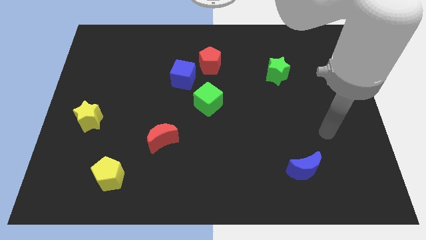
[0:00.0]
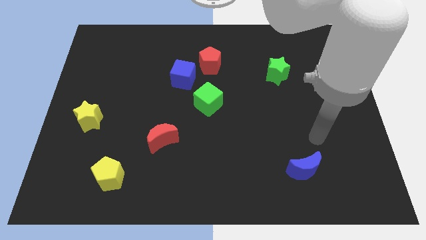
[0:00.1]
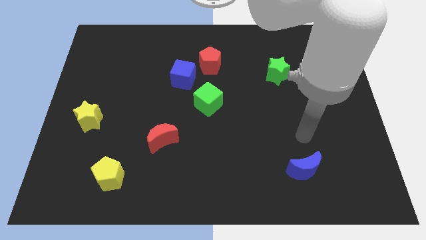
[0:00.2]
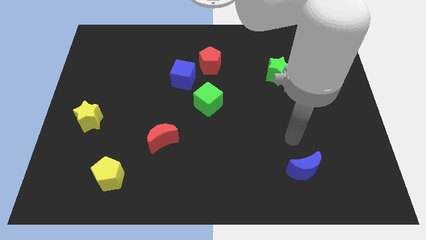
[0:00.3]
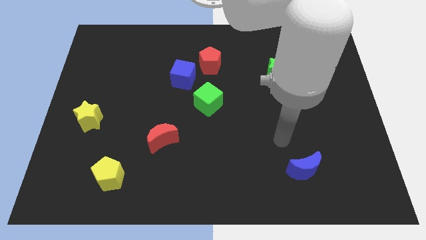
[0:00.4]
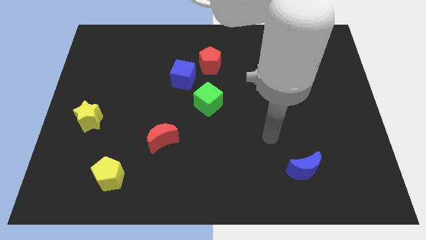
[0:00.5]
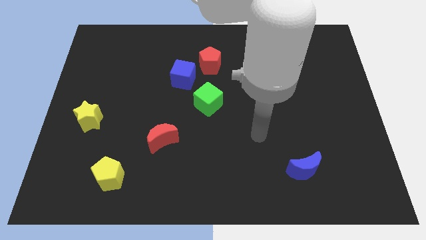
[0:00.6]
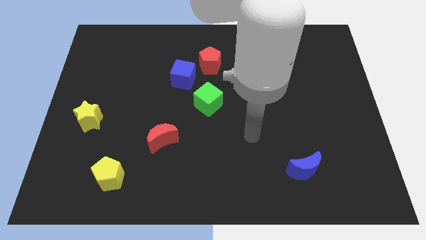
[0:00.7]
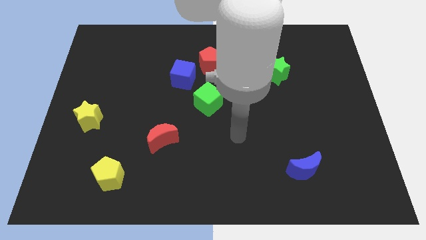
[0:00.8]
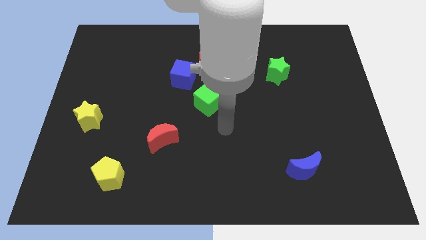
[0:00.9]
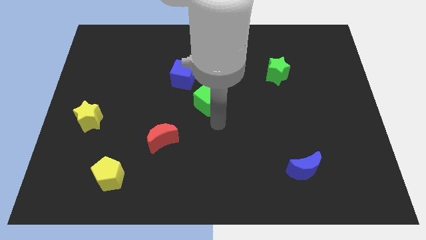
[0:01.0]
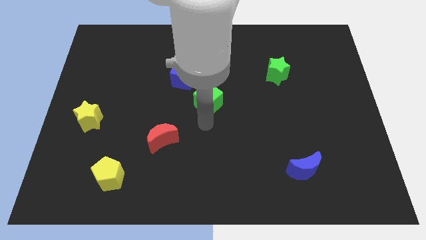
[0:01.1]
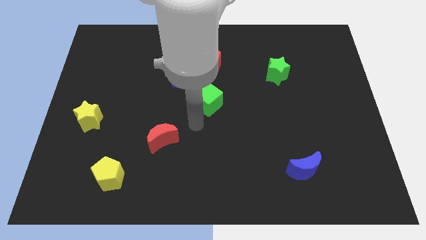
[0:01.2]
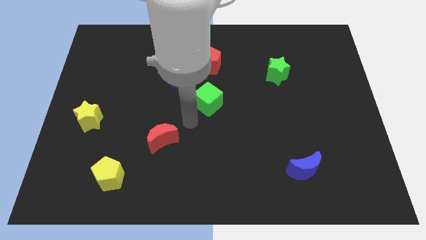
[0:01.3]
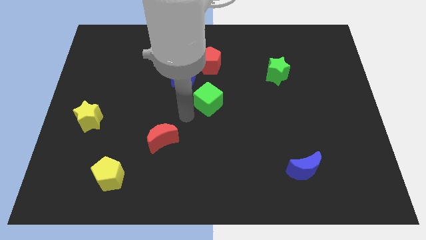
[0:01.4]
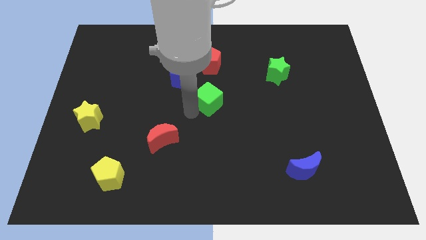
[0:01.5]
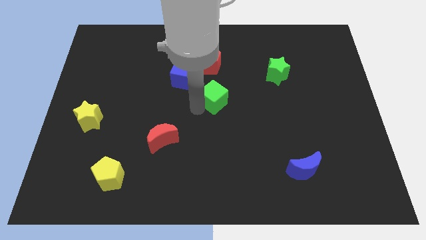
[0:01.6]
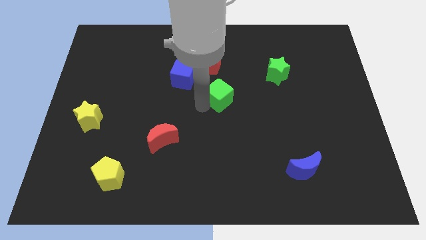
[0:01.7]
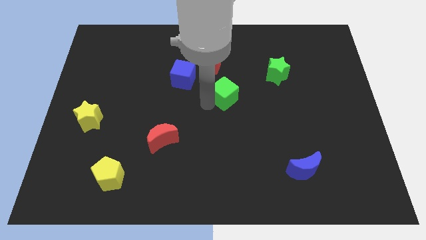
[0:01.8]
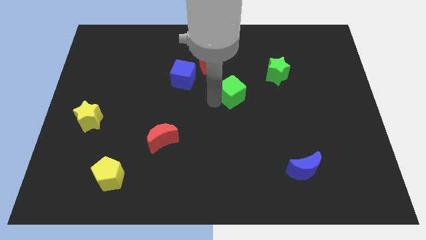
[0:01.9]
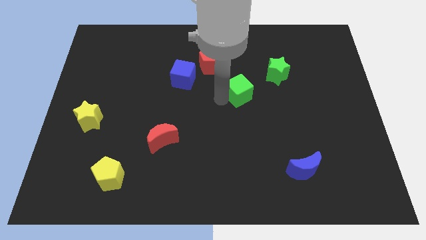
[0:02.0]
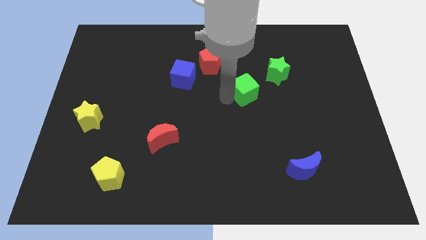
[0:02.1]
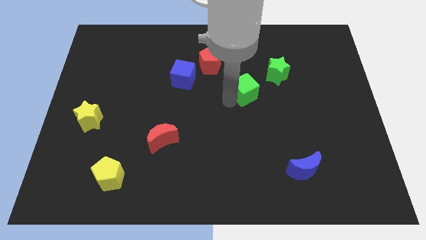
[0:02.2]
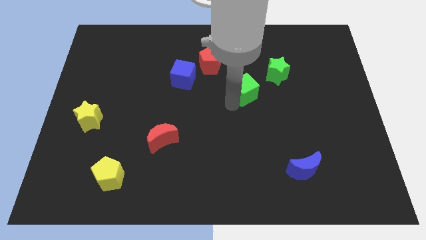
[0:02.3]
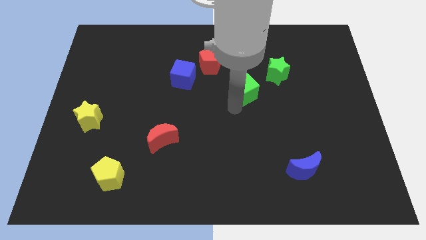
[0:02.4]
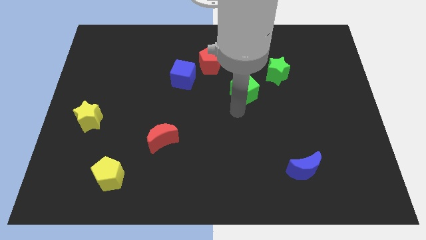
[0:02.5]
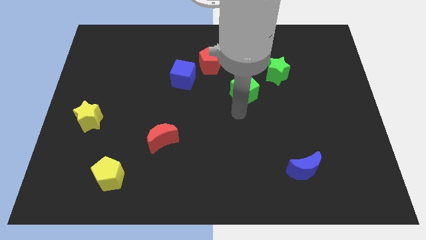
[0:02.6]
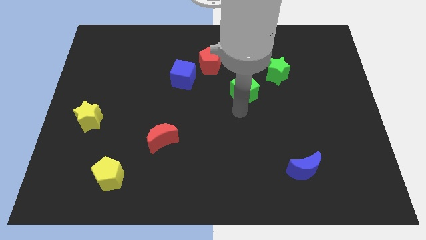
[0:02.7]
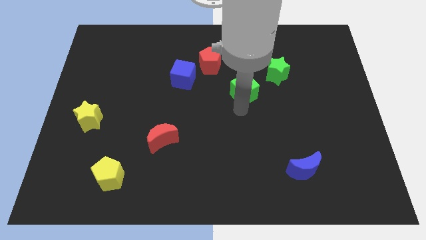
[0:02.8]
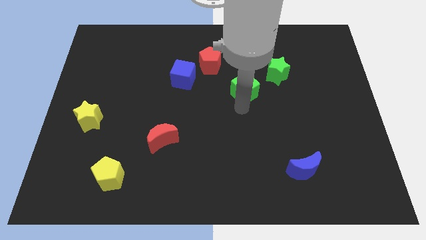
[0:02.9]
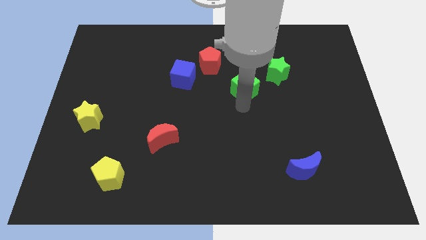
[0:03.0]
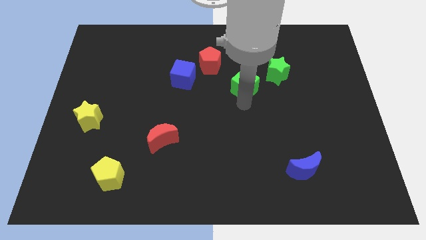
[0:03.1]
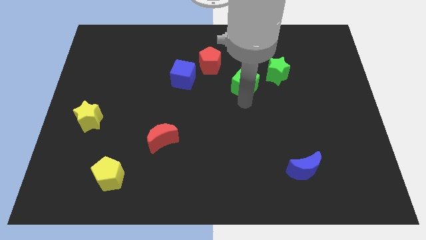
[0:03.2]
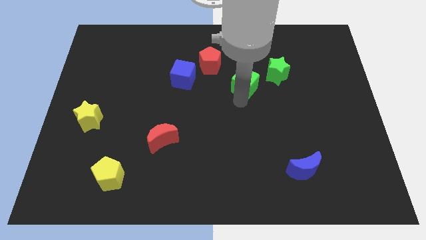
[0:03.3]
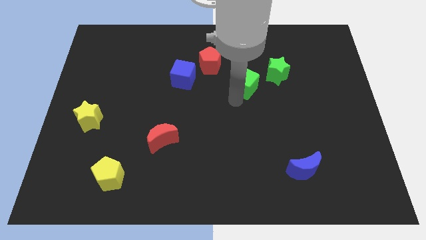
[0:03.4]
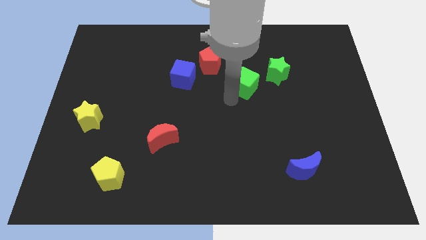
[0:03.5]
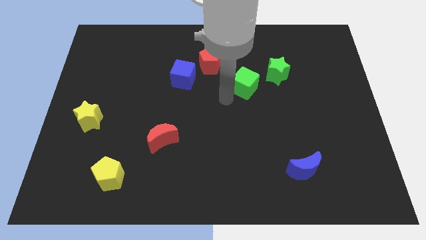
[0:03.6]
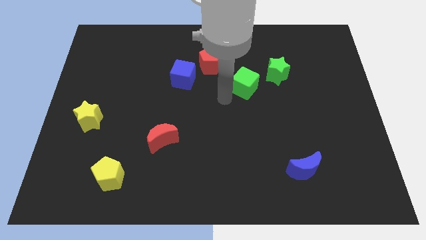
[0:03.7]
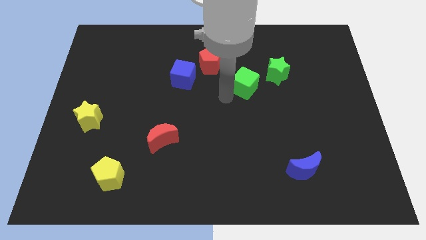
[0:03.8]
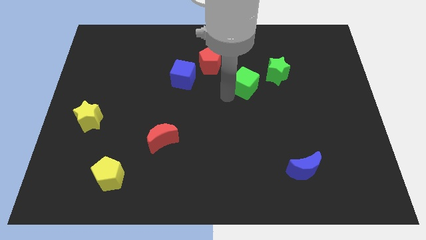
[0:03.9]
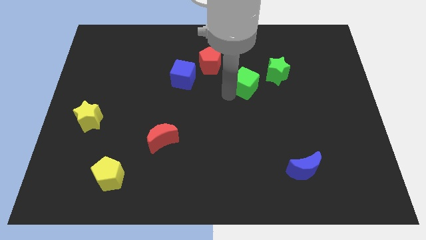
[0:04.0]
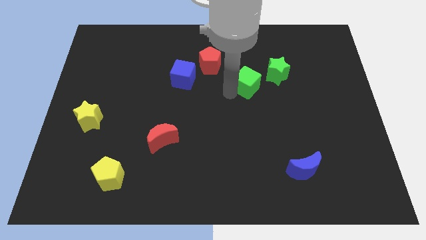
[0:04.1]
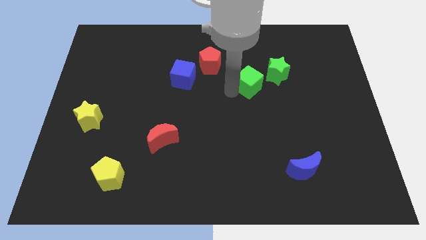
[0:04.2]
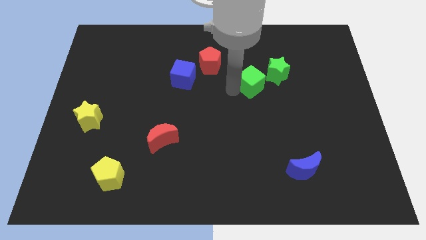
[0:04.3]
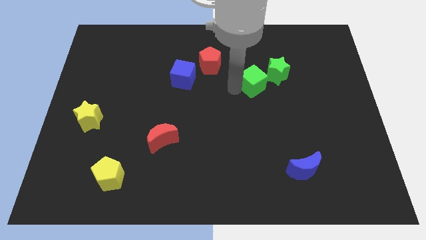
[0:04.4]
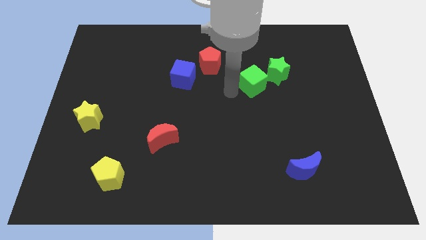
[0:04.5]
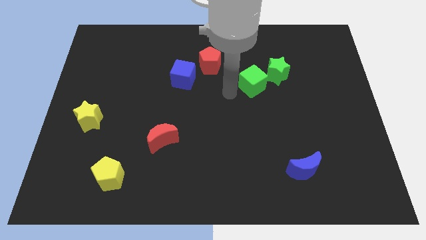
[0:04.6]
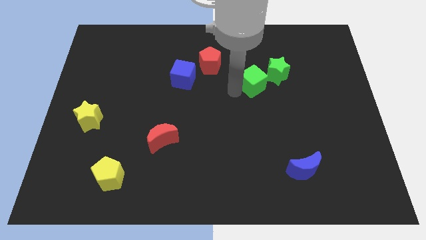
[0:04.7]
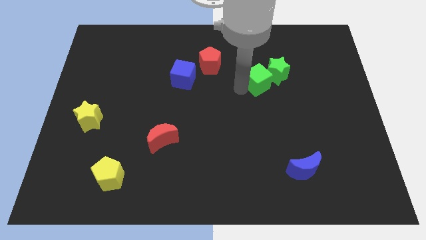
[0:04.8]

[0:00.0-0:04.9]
push the green cube next to the green star

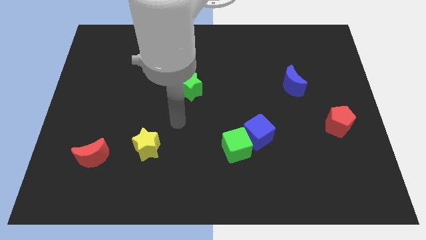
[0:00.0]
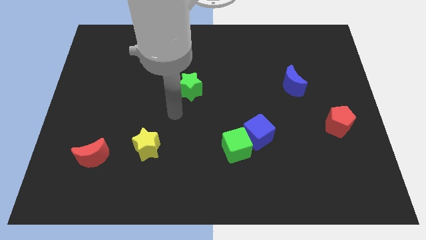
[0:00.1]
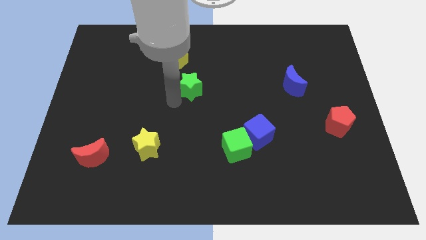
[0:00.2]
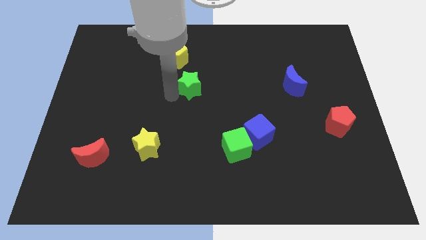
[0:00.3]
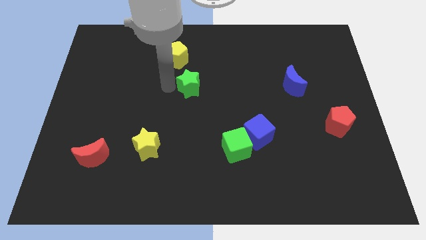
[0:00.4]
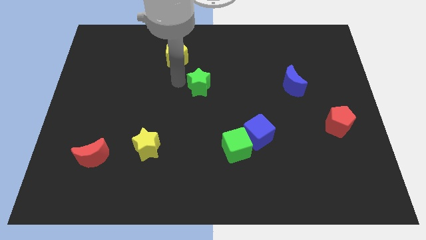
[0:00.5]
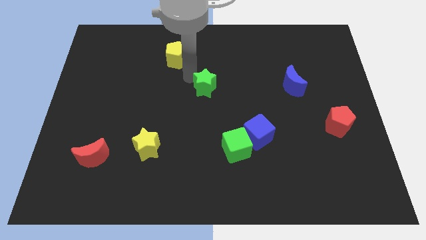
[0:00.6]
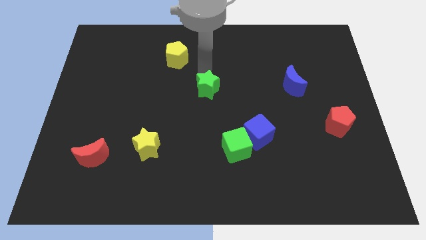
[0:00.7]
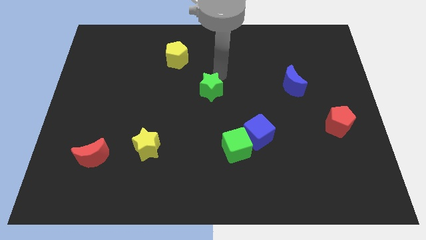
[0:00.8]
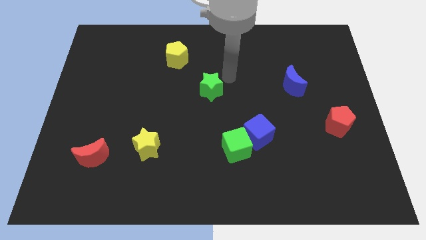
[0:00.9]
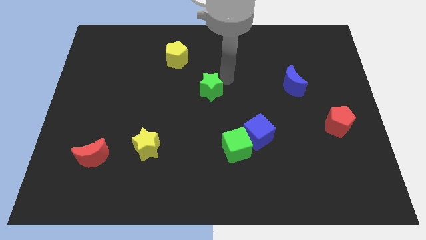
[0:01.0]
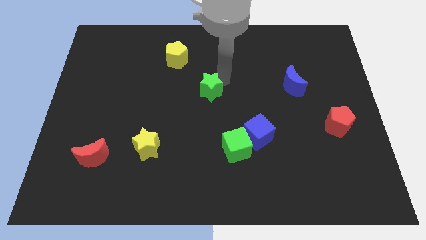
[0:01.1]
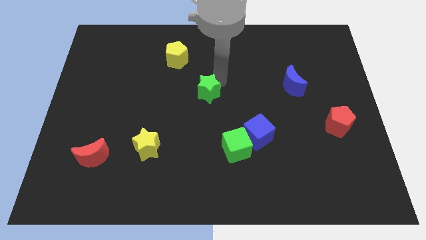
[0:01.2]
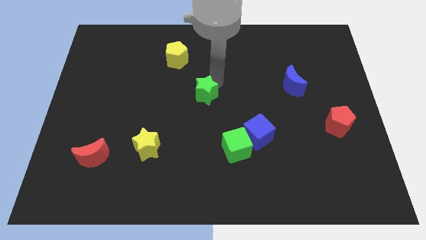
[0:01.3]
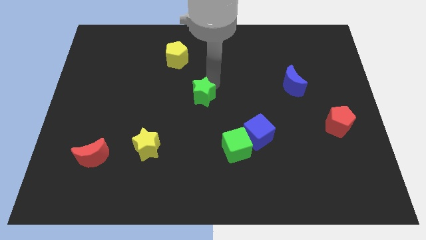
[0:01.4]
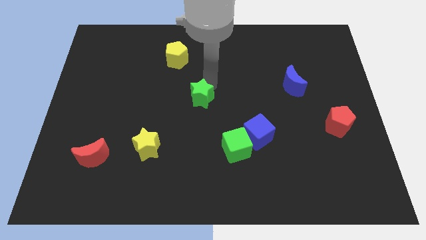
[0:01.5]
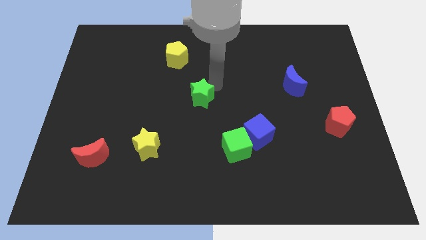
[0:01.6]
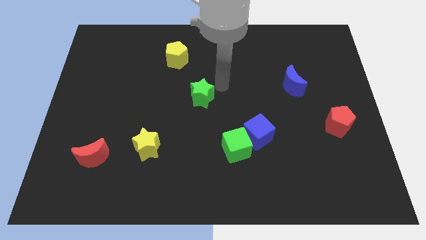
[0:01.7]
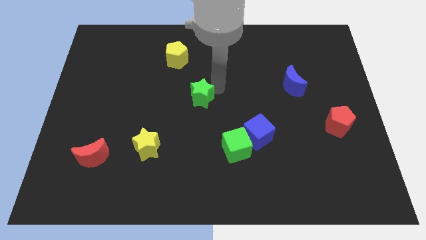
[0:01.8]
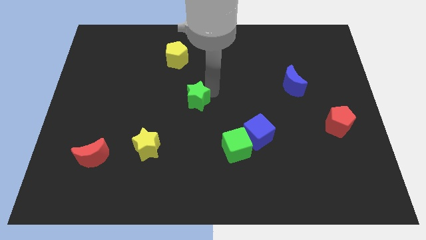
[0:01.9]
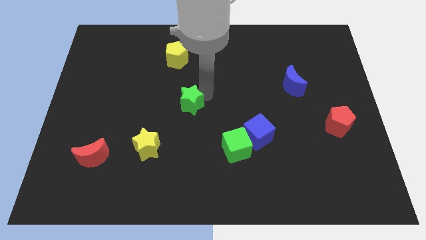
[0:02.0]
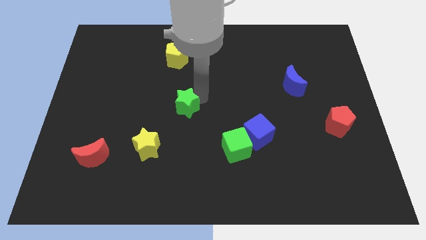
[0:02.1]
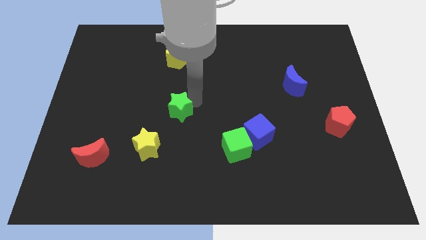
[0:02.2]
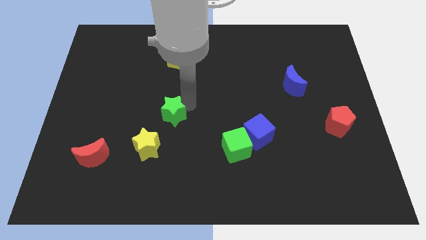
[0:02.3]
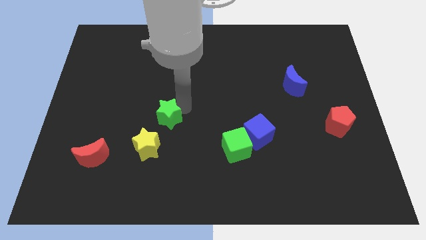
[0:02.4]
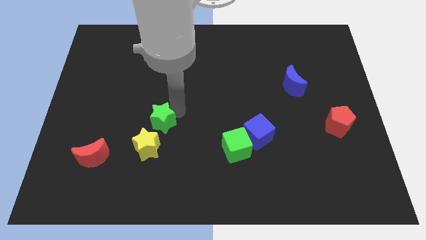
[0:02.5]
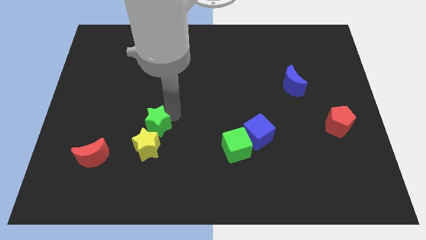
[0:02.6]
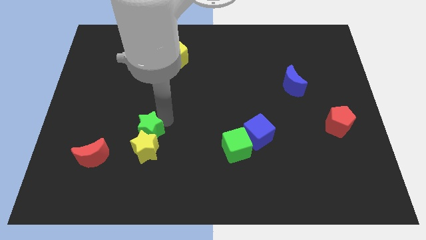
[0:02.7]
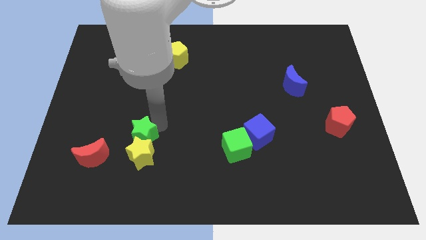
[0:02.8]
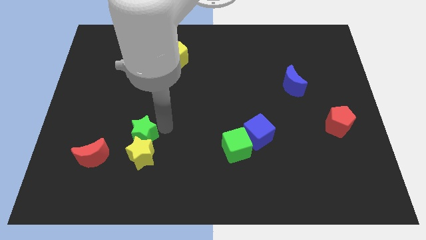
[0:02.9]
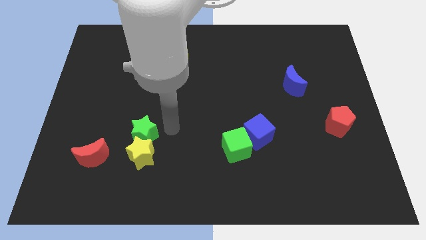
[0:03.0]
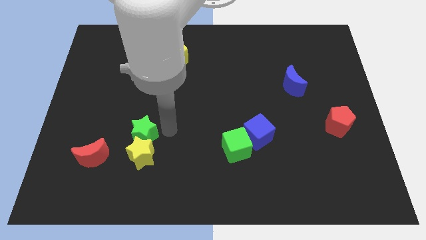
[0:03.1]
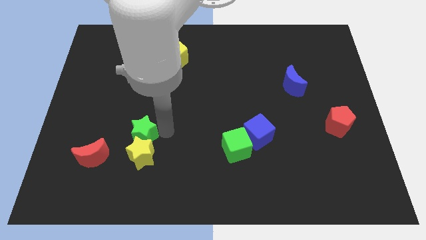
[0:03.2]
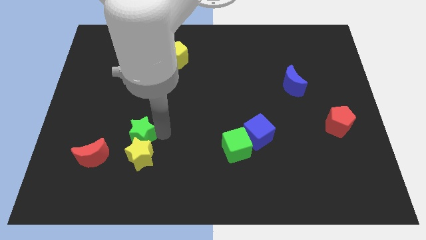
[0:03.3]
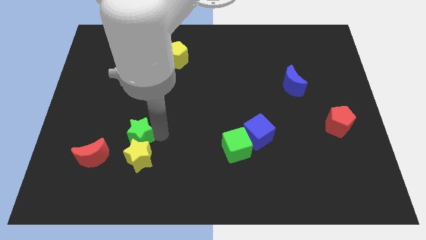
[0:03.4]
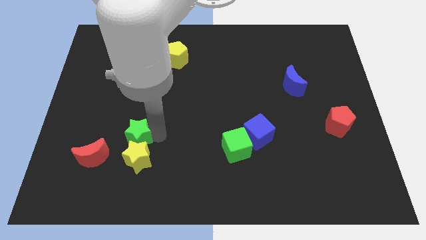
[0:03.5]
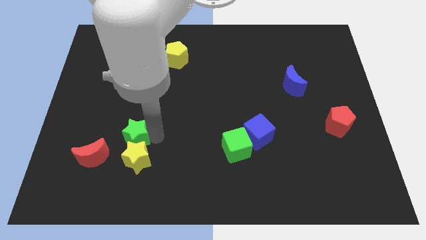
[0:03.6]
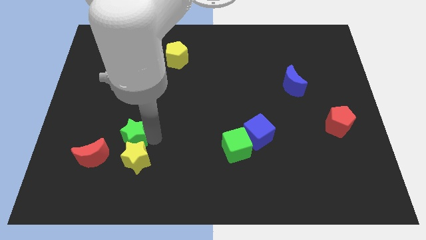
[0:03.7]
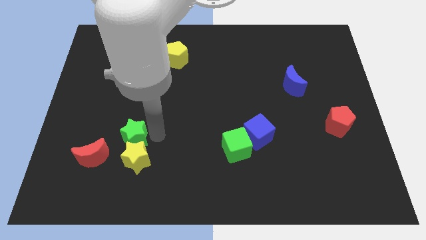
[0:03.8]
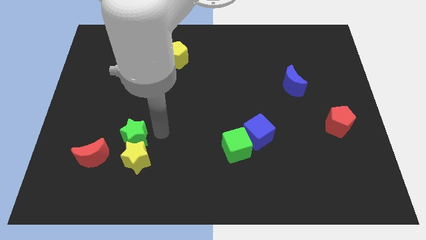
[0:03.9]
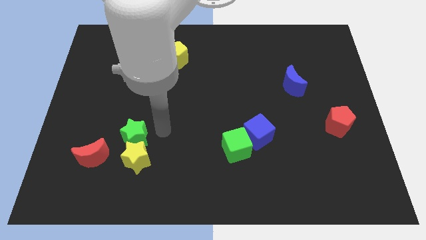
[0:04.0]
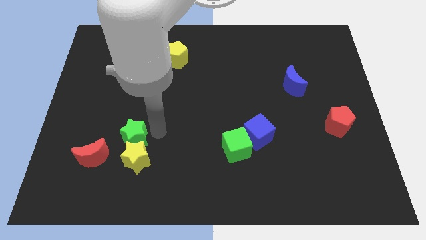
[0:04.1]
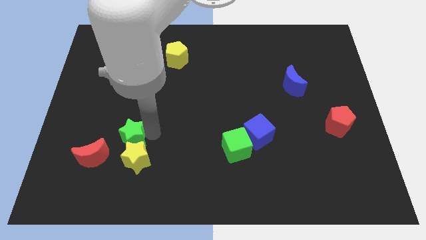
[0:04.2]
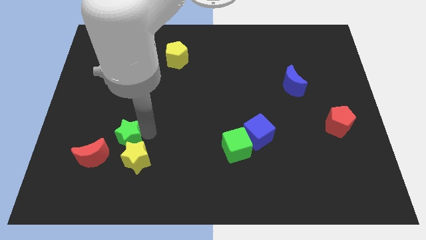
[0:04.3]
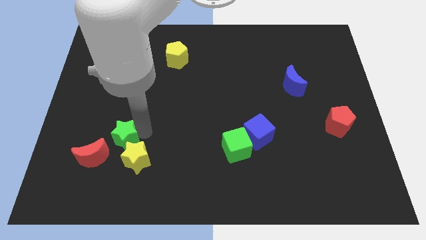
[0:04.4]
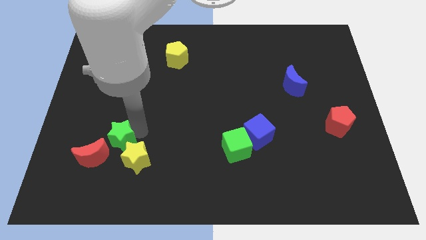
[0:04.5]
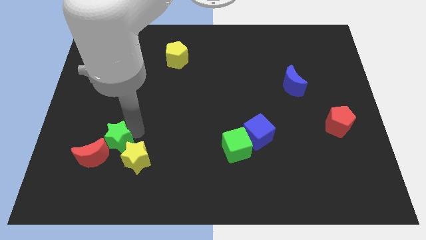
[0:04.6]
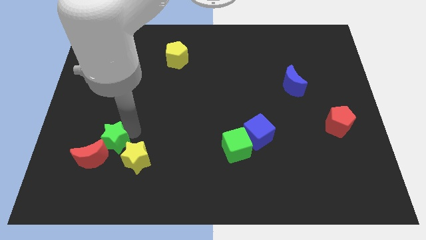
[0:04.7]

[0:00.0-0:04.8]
put the green star to the red moon
